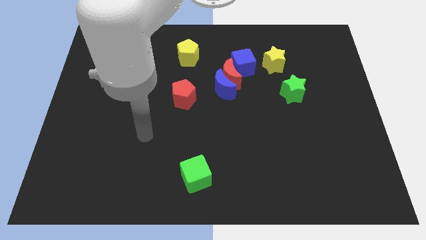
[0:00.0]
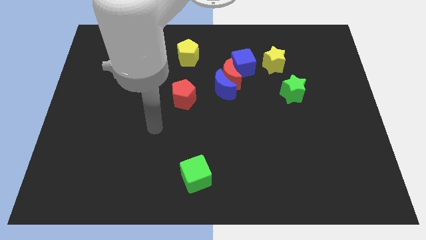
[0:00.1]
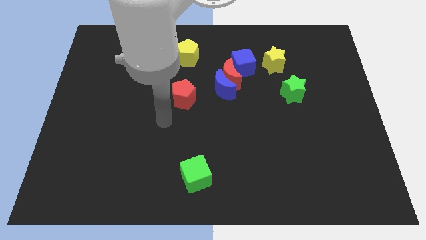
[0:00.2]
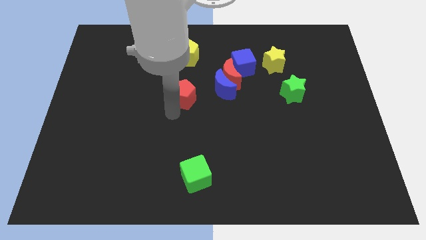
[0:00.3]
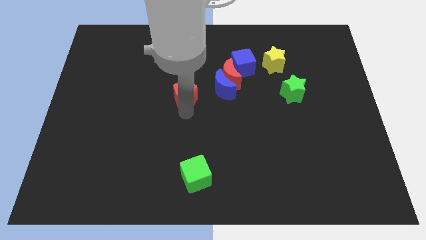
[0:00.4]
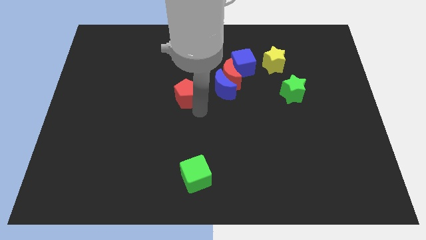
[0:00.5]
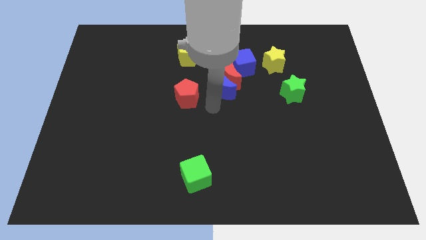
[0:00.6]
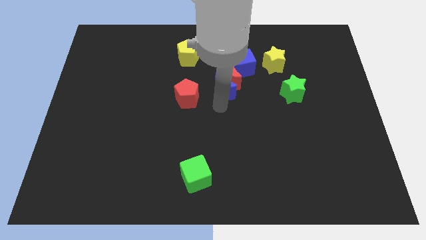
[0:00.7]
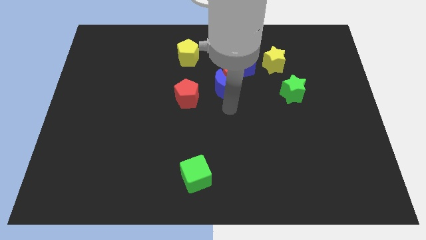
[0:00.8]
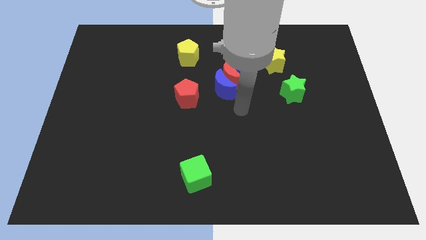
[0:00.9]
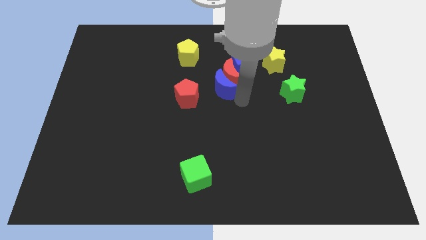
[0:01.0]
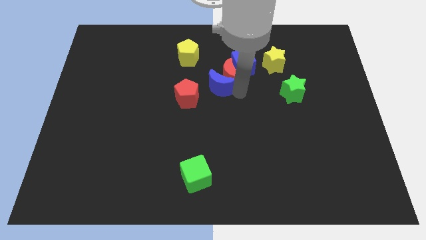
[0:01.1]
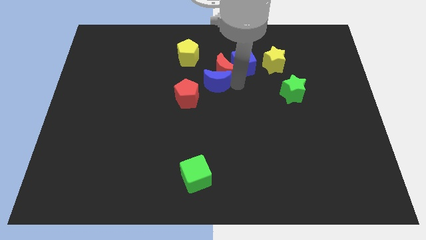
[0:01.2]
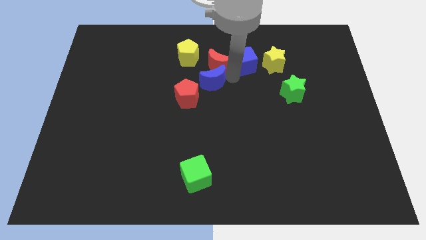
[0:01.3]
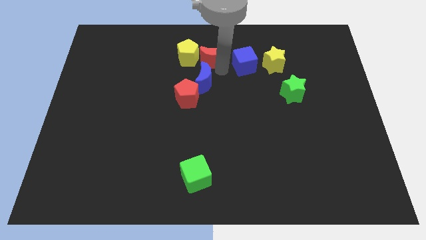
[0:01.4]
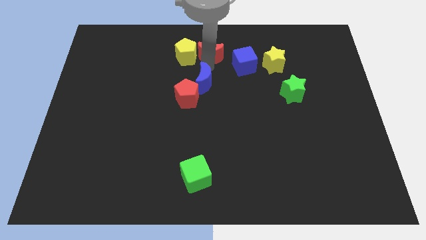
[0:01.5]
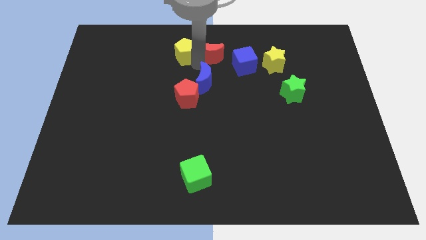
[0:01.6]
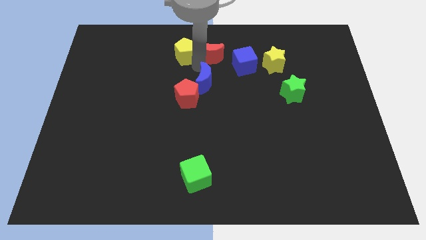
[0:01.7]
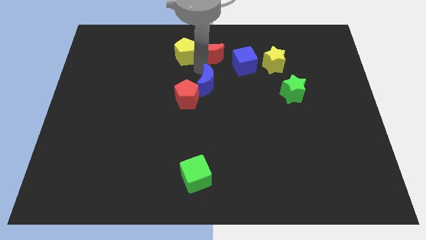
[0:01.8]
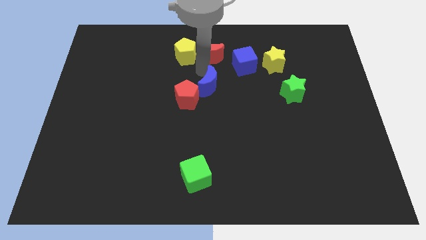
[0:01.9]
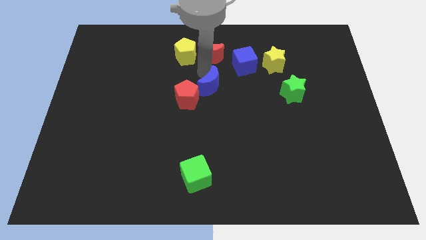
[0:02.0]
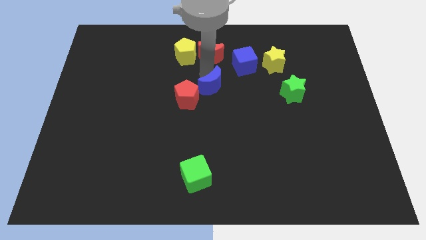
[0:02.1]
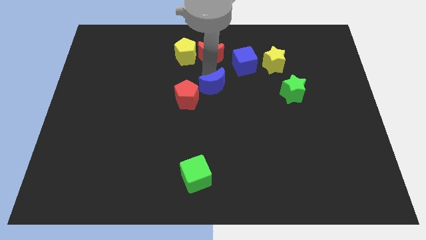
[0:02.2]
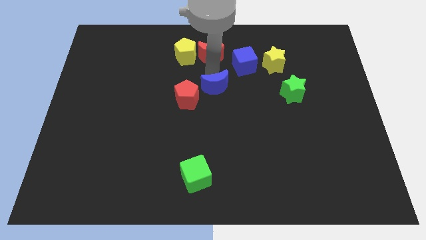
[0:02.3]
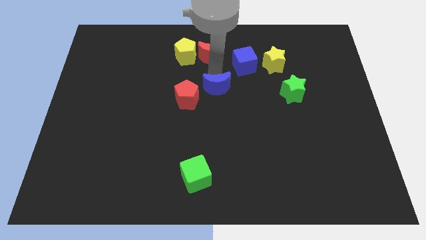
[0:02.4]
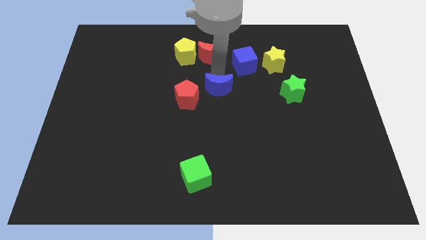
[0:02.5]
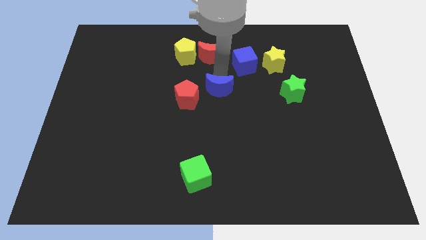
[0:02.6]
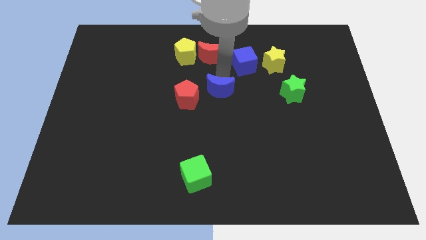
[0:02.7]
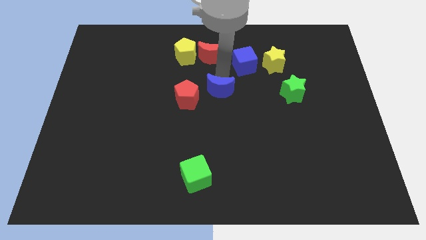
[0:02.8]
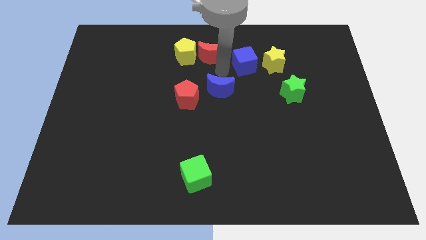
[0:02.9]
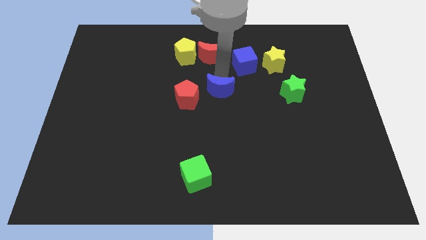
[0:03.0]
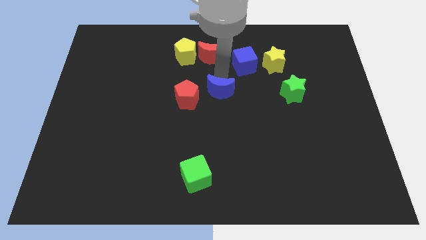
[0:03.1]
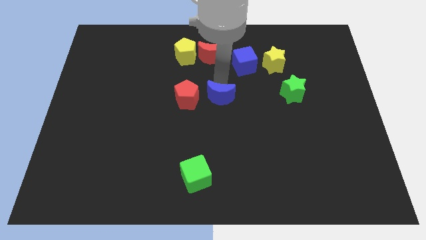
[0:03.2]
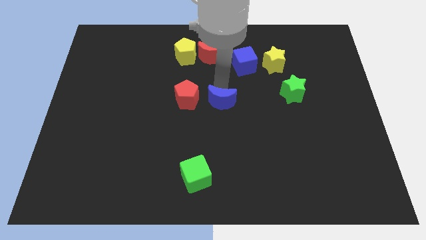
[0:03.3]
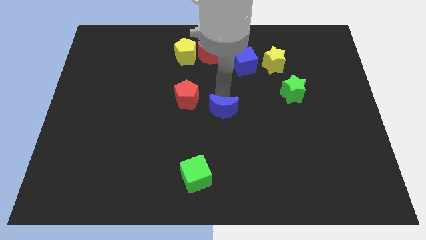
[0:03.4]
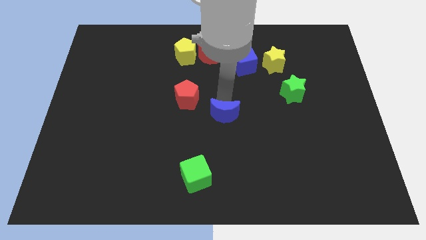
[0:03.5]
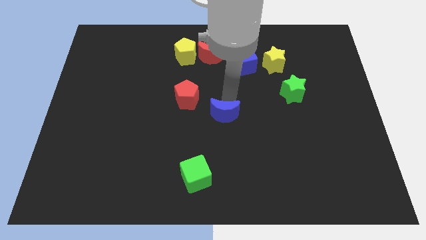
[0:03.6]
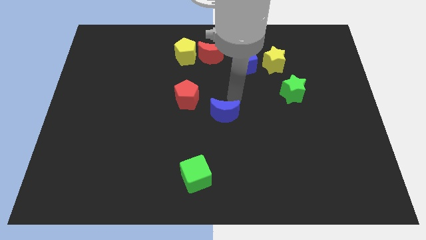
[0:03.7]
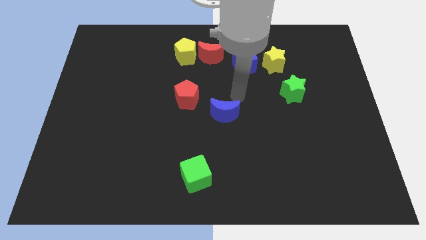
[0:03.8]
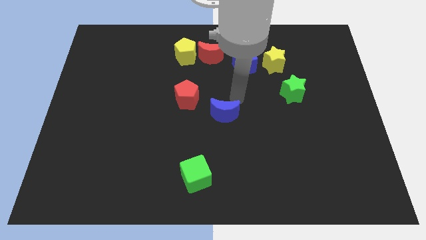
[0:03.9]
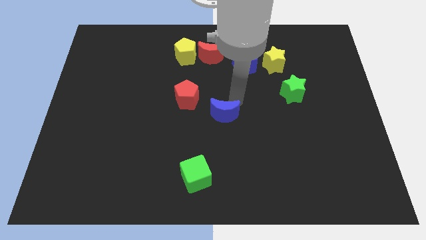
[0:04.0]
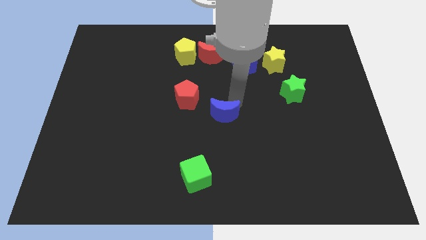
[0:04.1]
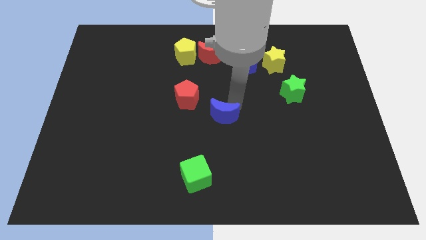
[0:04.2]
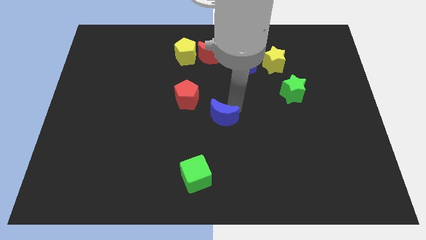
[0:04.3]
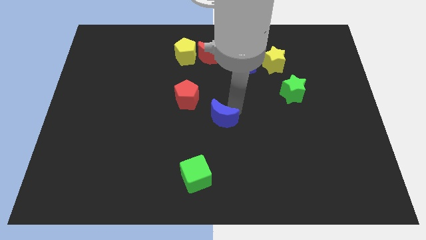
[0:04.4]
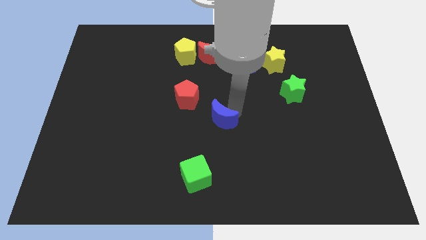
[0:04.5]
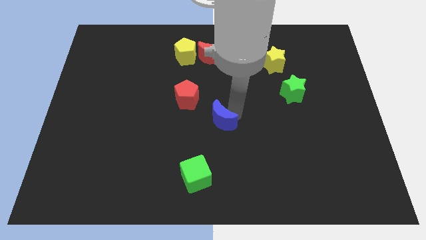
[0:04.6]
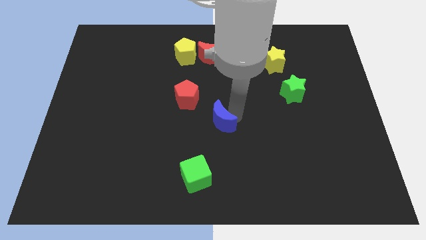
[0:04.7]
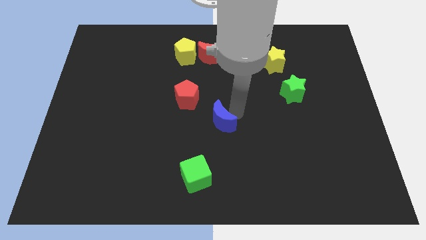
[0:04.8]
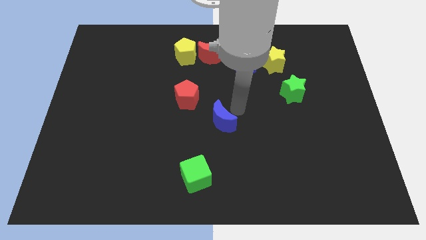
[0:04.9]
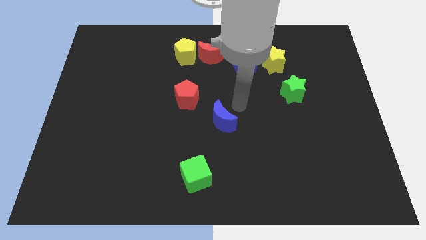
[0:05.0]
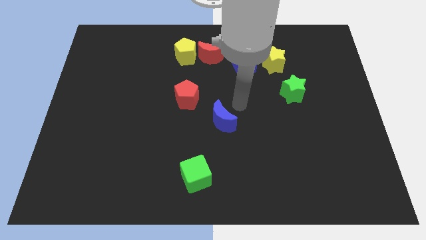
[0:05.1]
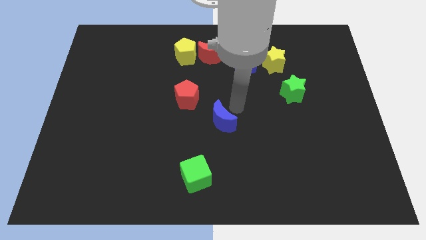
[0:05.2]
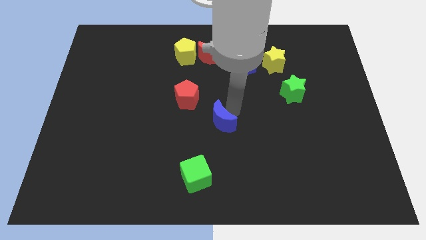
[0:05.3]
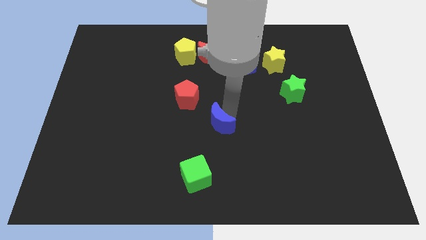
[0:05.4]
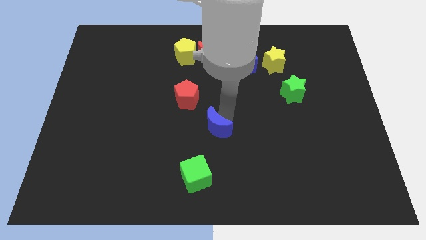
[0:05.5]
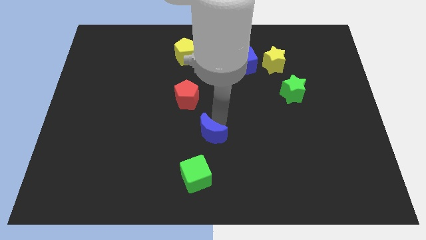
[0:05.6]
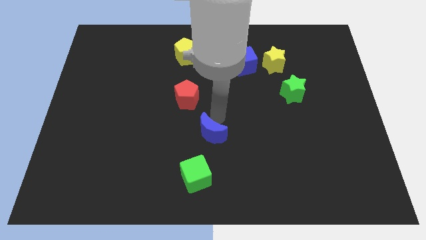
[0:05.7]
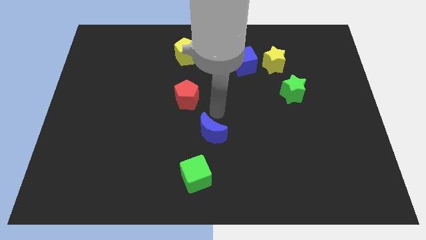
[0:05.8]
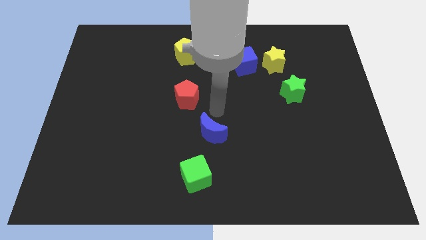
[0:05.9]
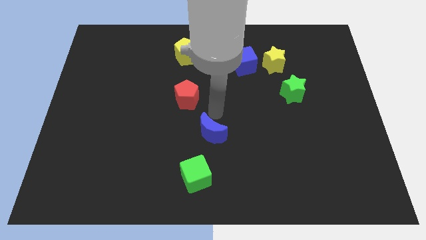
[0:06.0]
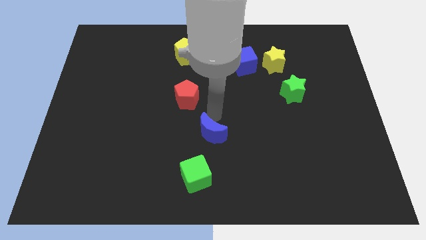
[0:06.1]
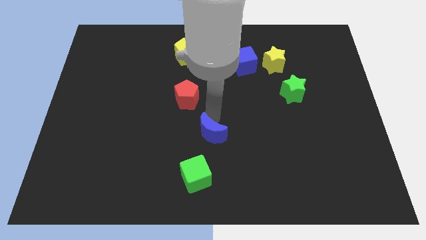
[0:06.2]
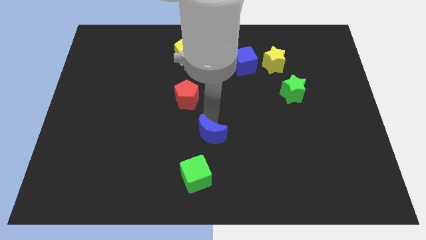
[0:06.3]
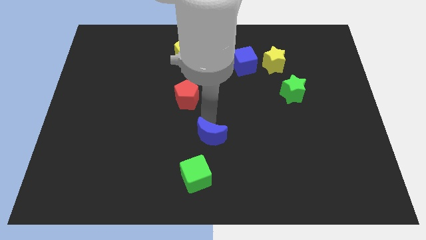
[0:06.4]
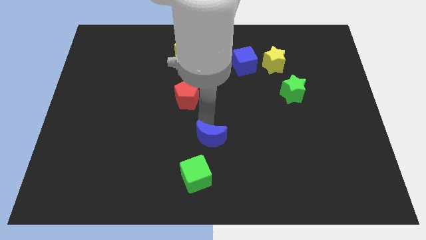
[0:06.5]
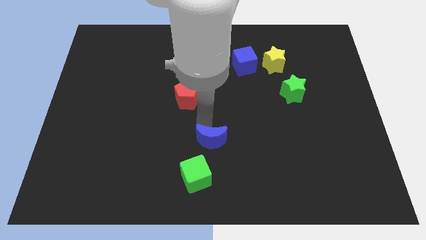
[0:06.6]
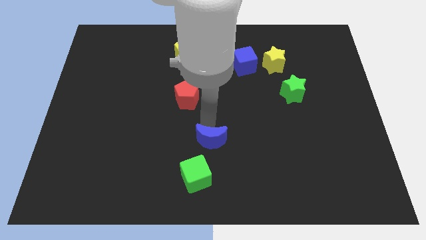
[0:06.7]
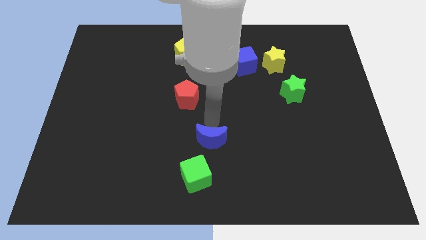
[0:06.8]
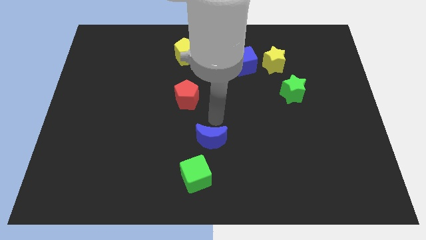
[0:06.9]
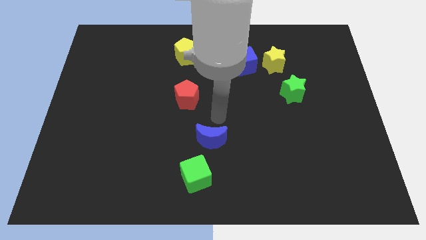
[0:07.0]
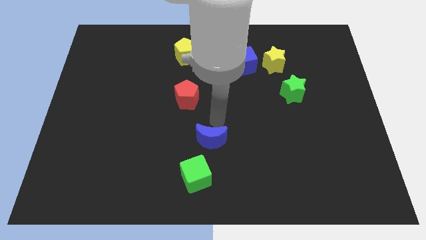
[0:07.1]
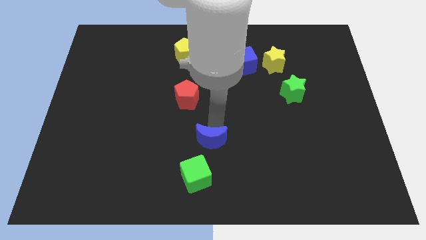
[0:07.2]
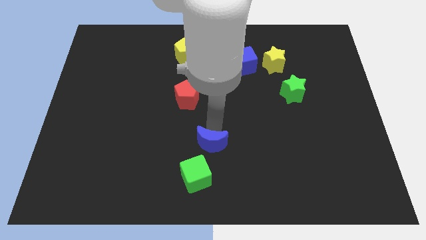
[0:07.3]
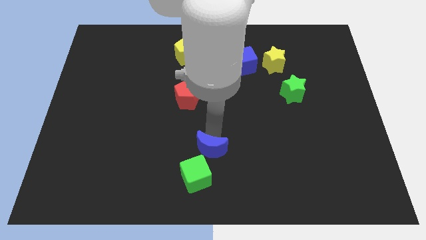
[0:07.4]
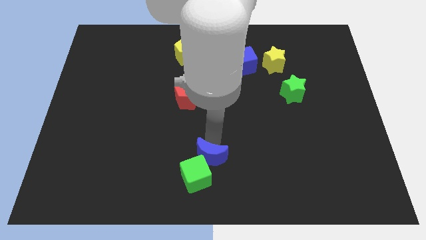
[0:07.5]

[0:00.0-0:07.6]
push the blue moon to the green cube

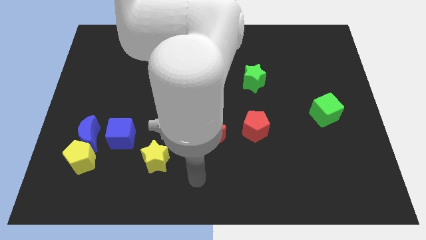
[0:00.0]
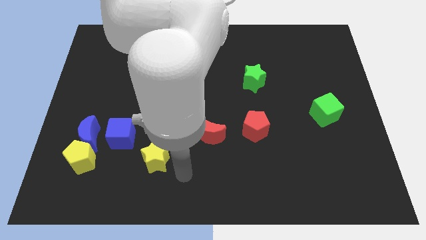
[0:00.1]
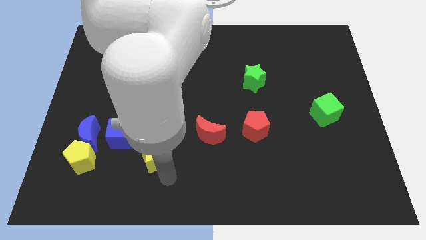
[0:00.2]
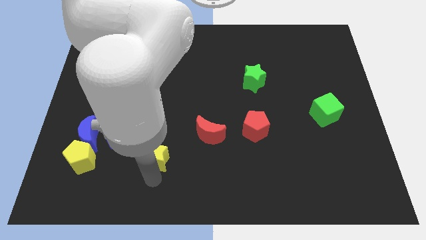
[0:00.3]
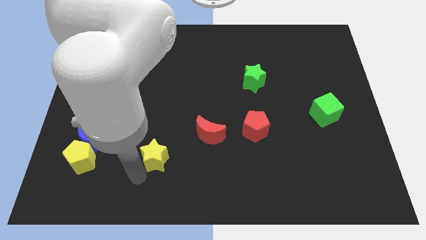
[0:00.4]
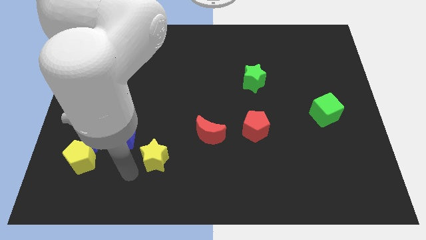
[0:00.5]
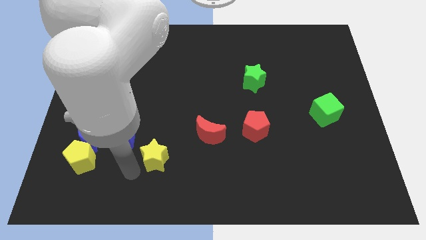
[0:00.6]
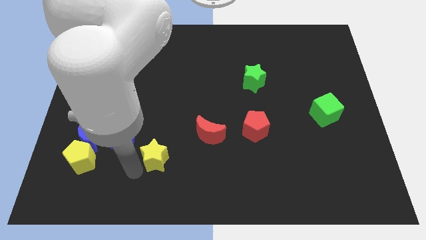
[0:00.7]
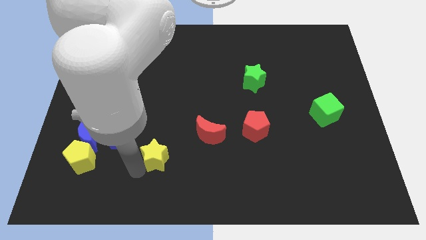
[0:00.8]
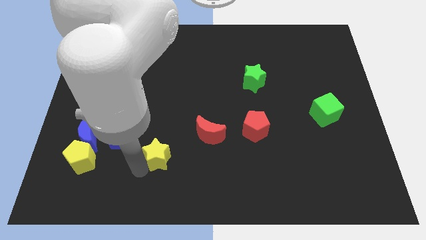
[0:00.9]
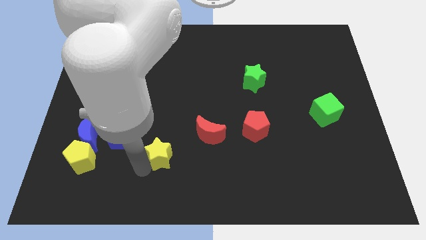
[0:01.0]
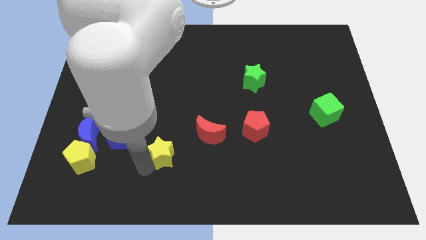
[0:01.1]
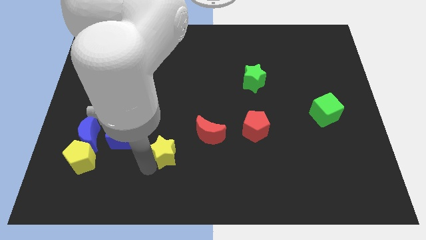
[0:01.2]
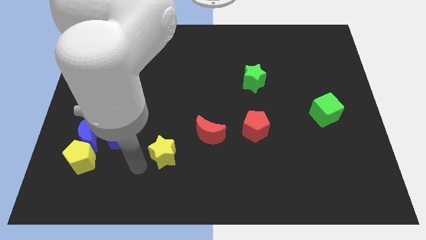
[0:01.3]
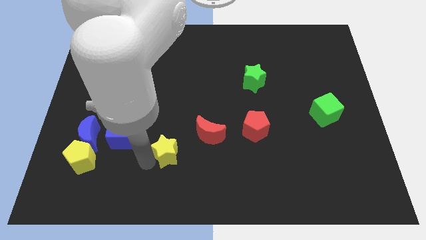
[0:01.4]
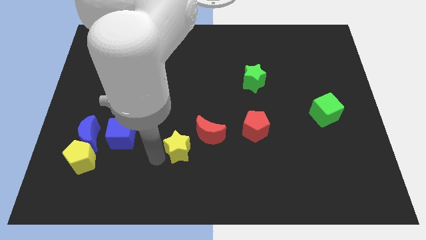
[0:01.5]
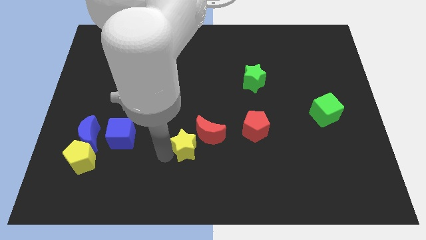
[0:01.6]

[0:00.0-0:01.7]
slide the yellow star next to the red moon
